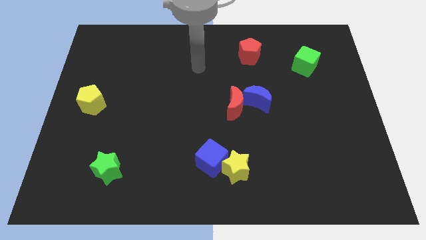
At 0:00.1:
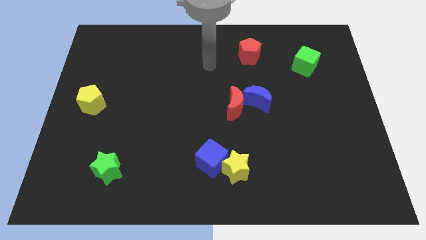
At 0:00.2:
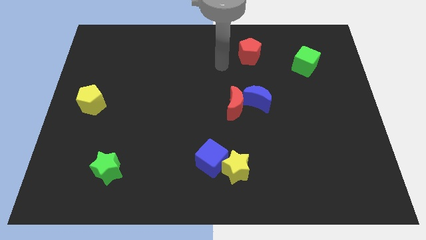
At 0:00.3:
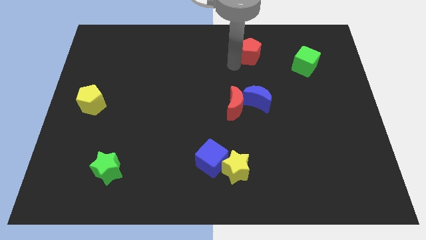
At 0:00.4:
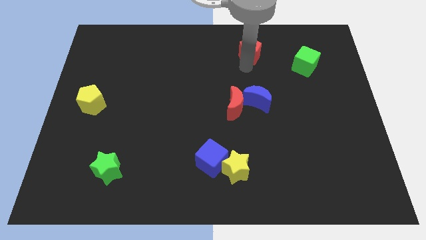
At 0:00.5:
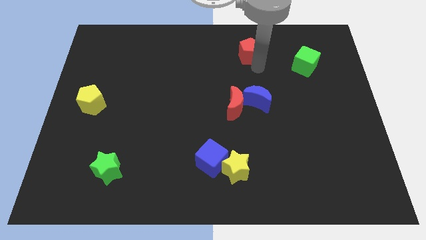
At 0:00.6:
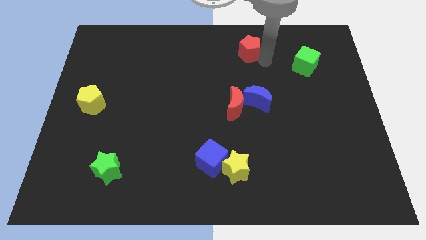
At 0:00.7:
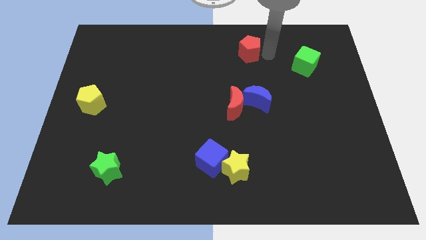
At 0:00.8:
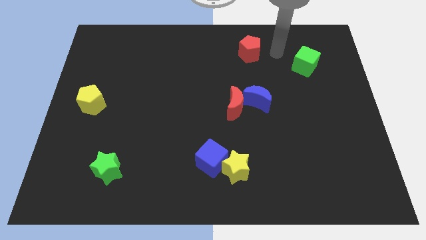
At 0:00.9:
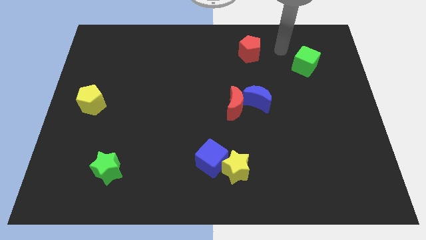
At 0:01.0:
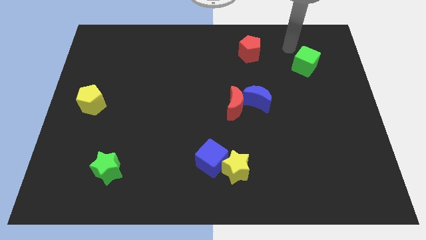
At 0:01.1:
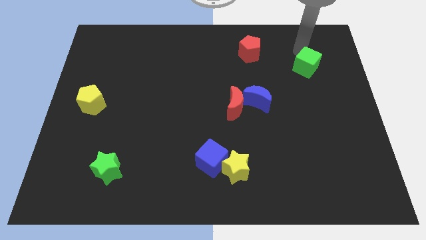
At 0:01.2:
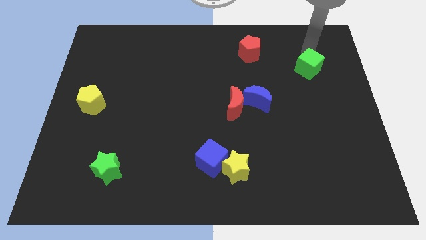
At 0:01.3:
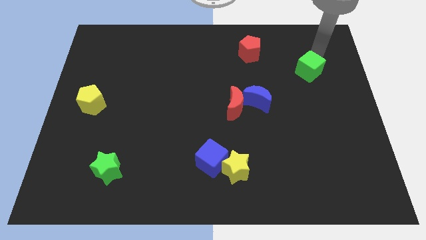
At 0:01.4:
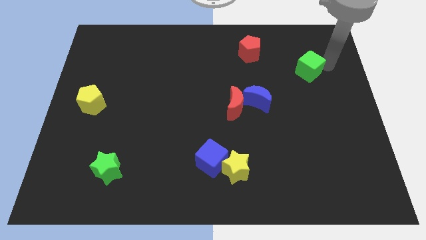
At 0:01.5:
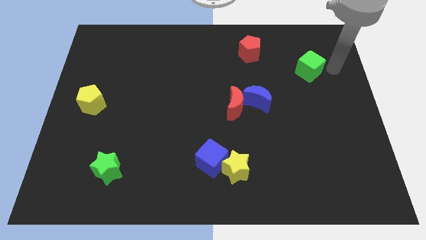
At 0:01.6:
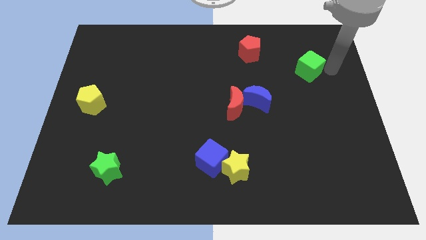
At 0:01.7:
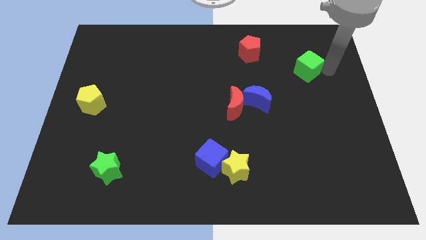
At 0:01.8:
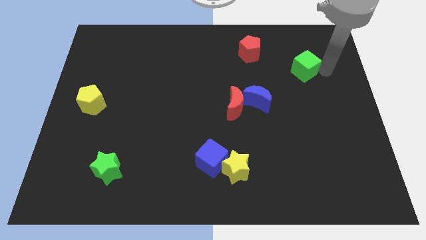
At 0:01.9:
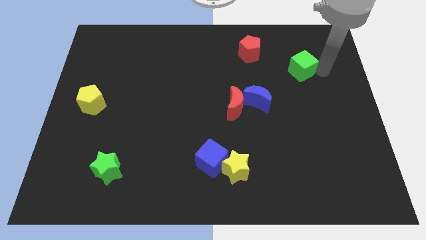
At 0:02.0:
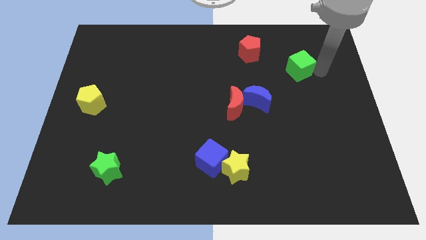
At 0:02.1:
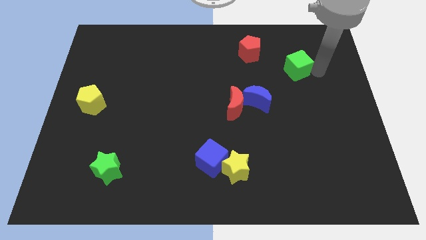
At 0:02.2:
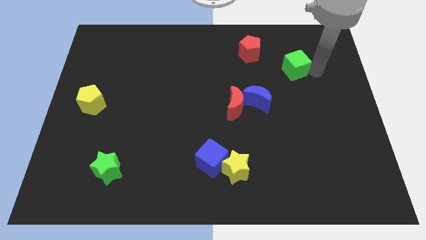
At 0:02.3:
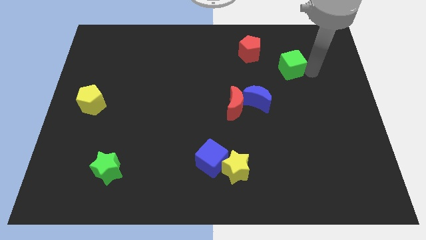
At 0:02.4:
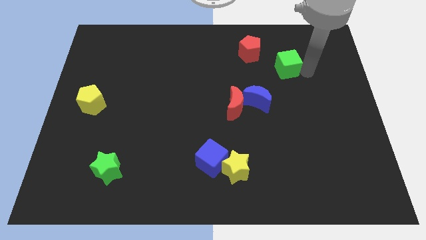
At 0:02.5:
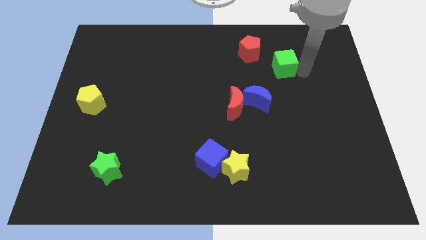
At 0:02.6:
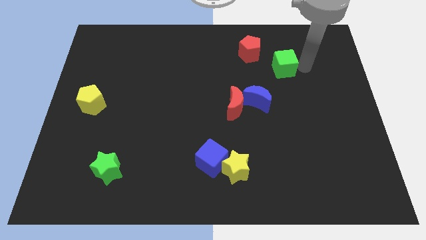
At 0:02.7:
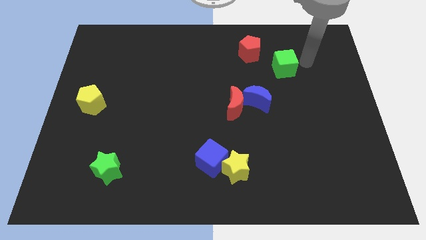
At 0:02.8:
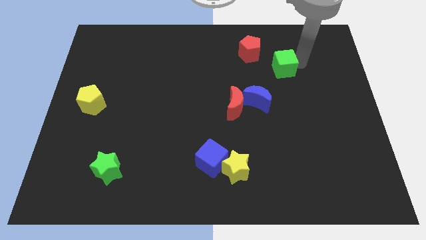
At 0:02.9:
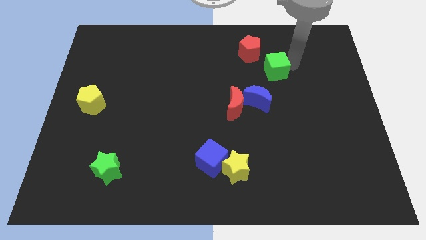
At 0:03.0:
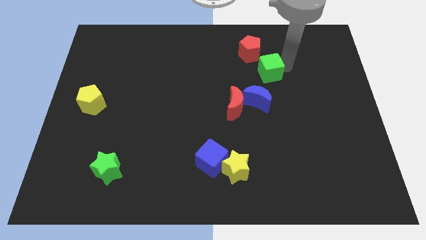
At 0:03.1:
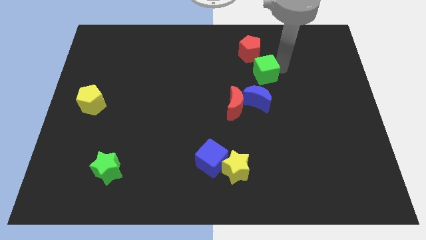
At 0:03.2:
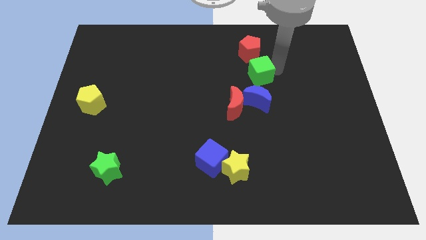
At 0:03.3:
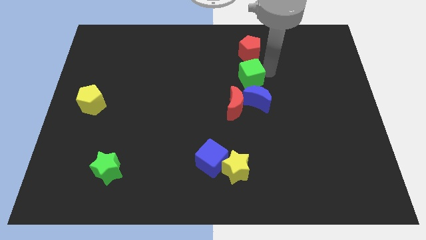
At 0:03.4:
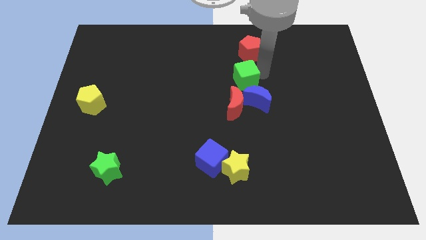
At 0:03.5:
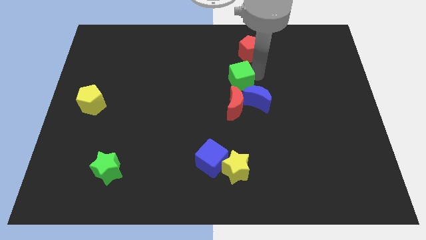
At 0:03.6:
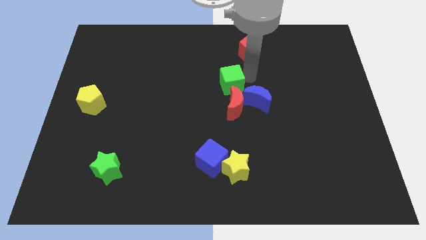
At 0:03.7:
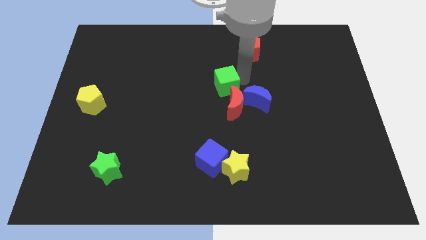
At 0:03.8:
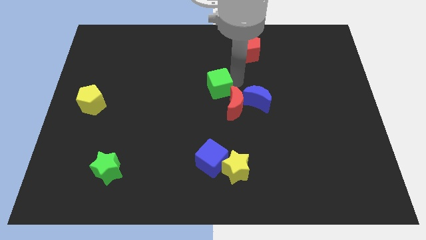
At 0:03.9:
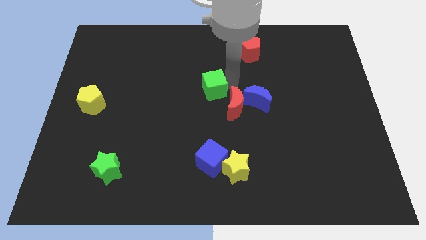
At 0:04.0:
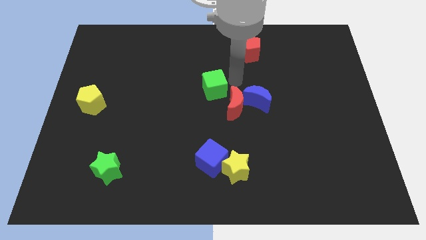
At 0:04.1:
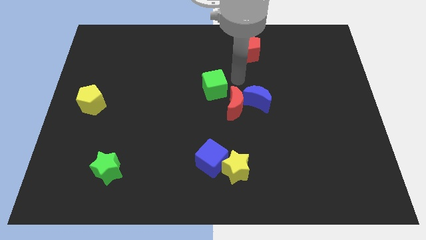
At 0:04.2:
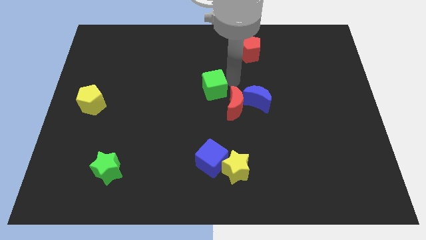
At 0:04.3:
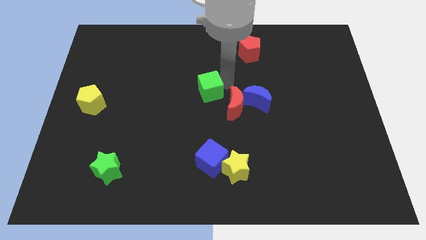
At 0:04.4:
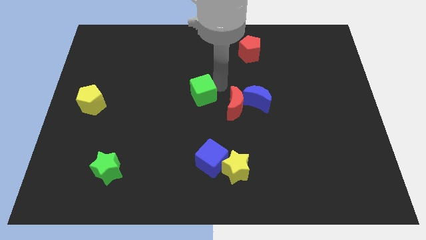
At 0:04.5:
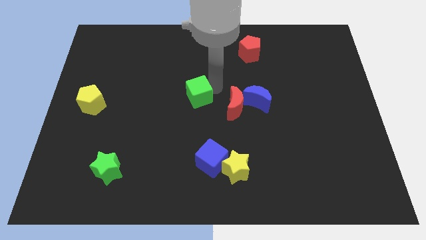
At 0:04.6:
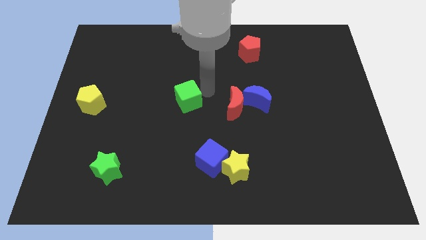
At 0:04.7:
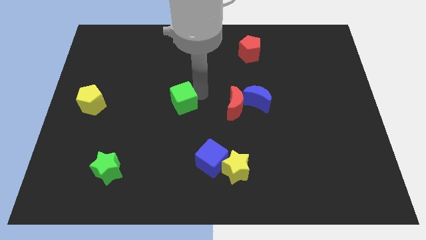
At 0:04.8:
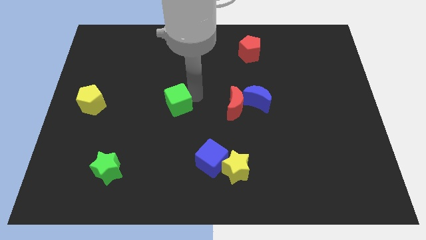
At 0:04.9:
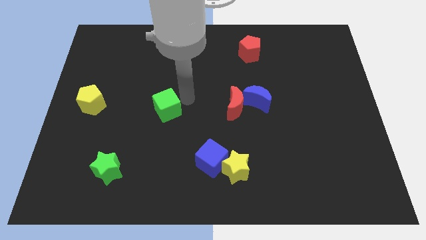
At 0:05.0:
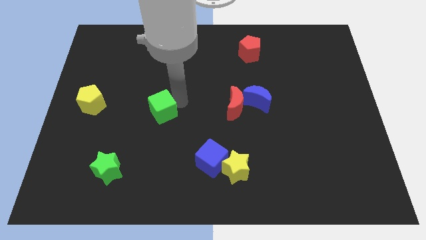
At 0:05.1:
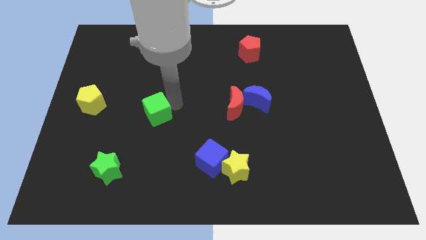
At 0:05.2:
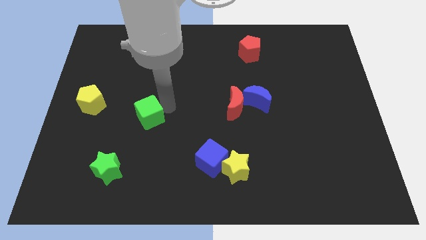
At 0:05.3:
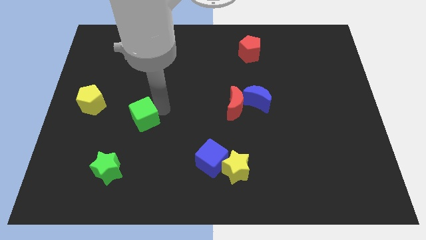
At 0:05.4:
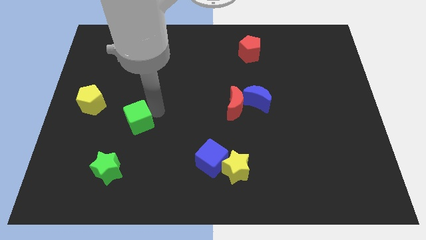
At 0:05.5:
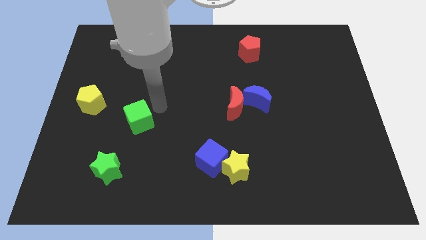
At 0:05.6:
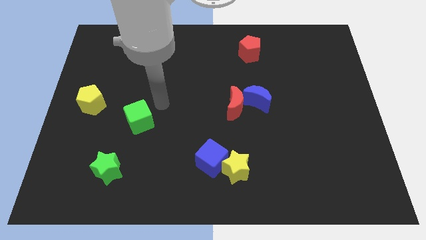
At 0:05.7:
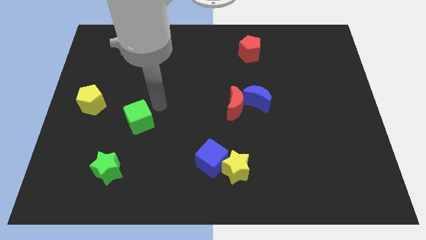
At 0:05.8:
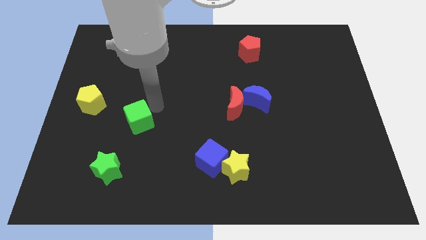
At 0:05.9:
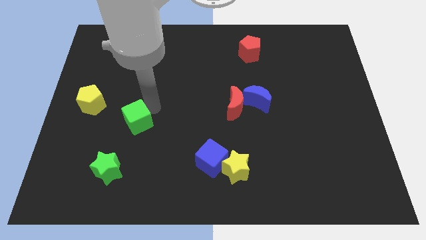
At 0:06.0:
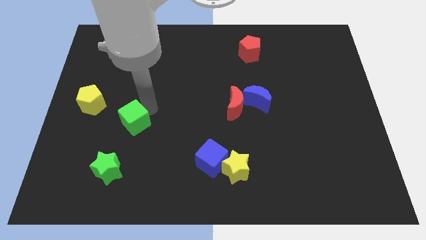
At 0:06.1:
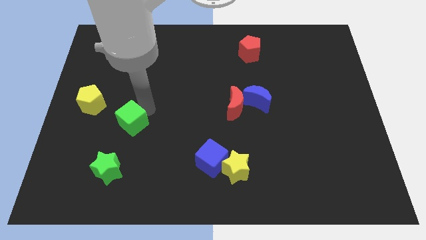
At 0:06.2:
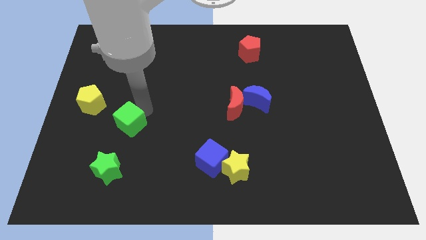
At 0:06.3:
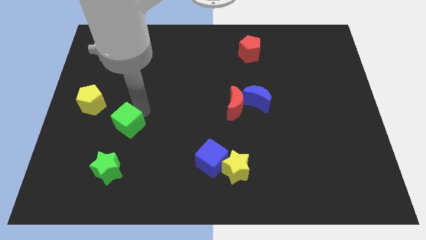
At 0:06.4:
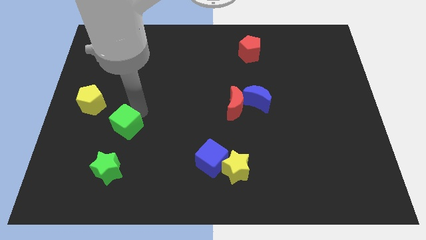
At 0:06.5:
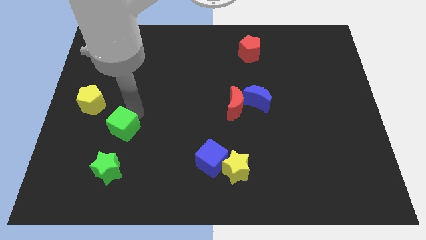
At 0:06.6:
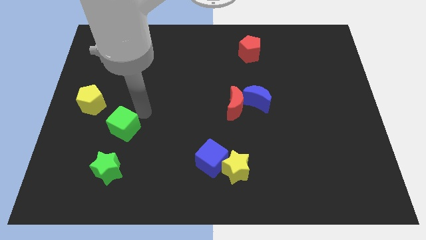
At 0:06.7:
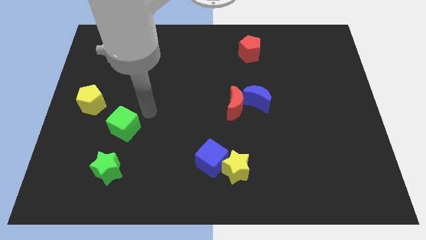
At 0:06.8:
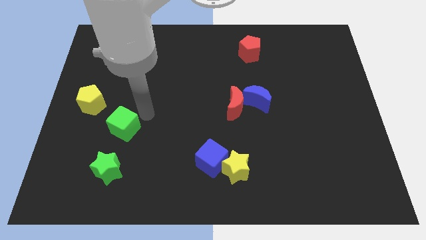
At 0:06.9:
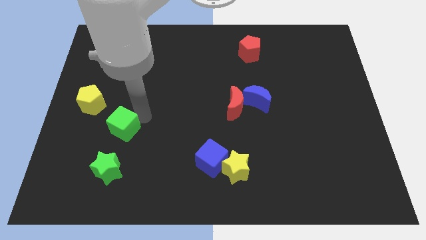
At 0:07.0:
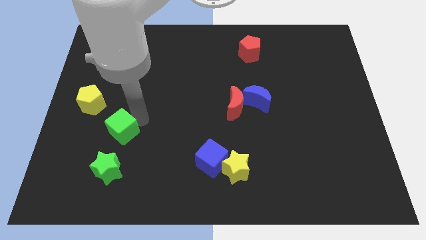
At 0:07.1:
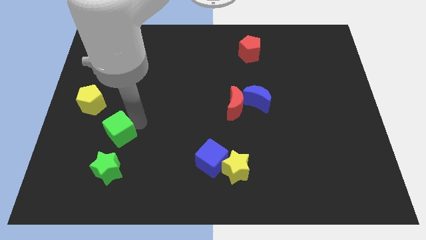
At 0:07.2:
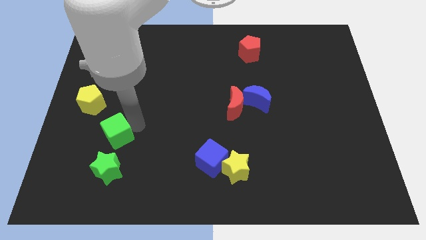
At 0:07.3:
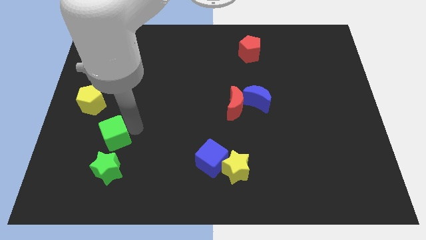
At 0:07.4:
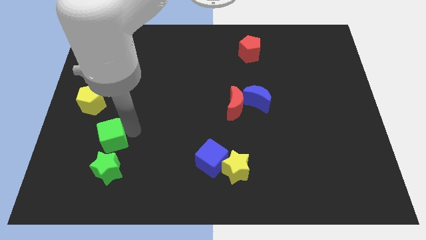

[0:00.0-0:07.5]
push the green cube to the top left of the green star
